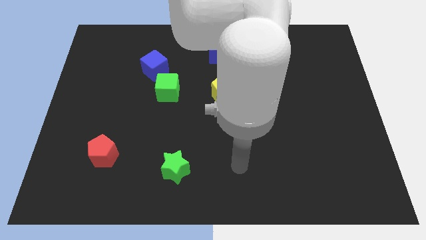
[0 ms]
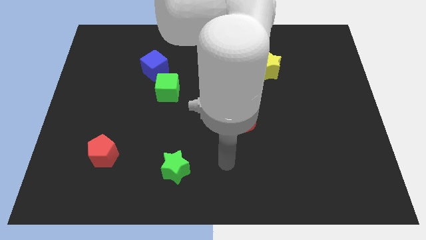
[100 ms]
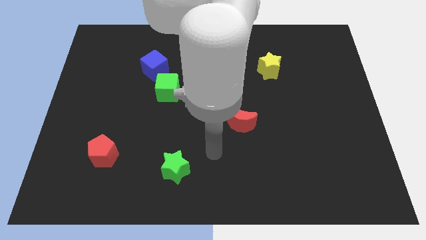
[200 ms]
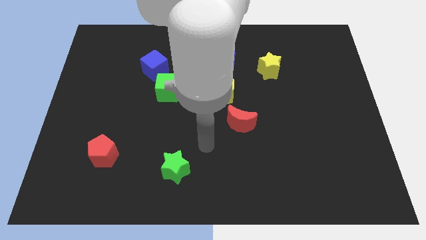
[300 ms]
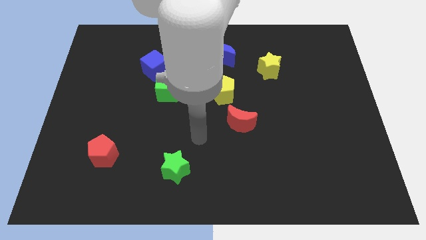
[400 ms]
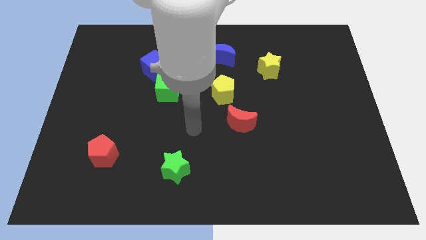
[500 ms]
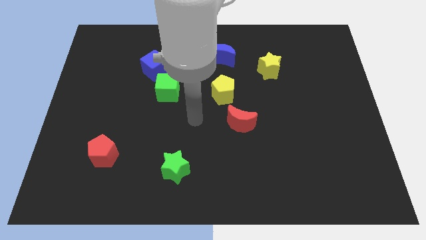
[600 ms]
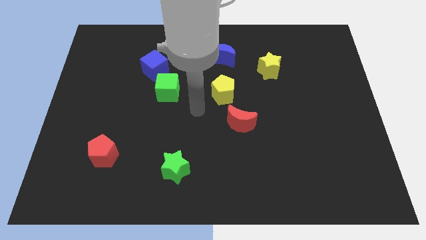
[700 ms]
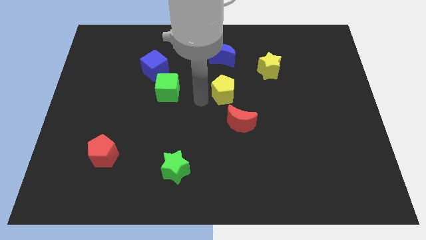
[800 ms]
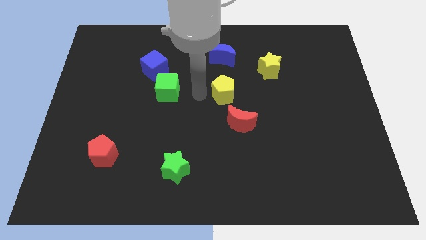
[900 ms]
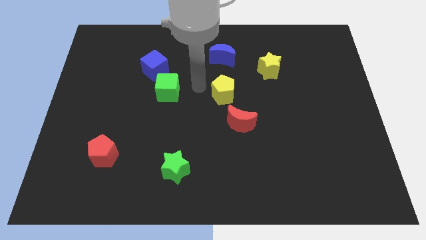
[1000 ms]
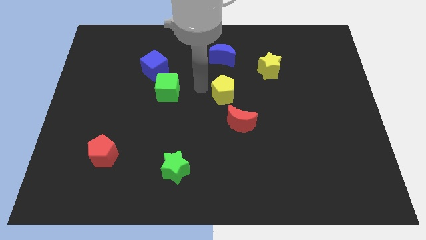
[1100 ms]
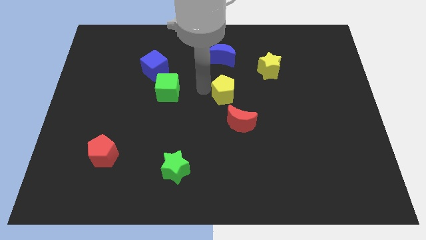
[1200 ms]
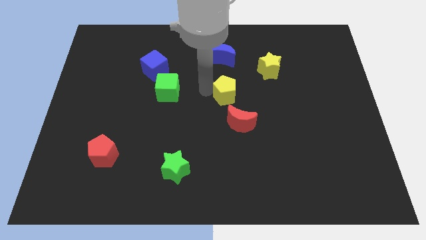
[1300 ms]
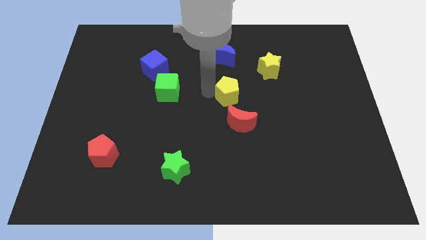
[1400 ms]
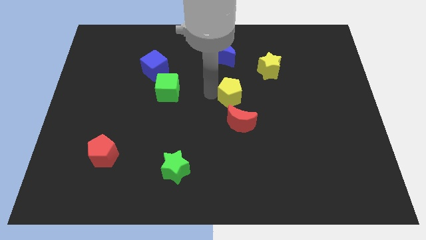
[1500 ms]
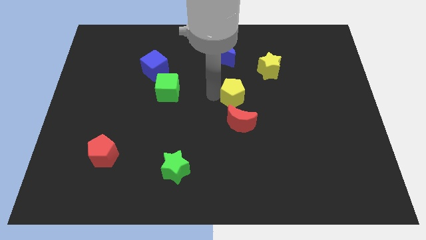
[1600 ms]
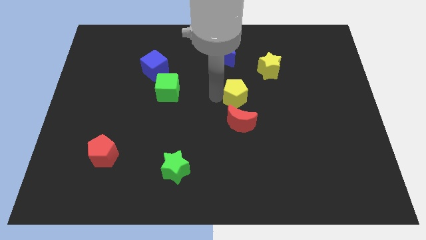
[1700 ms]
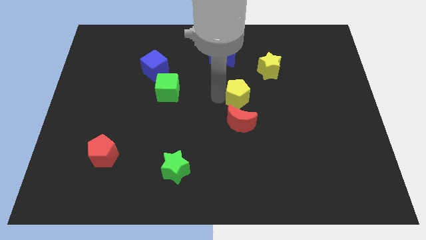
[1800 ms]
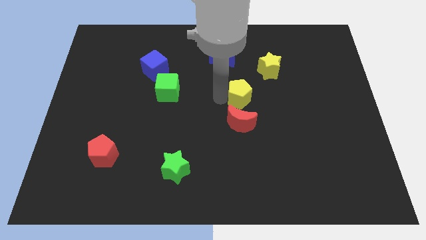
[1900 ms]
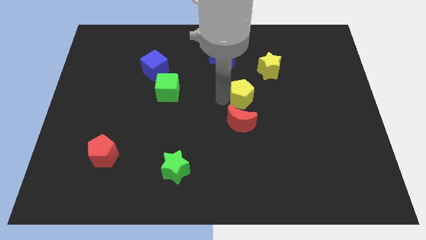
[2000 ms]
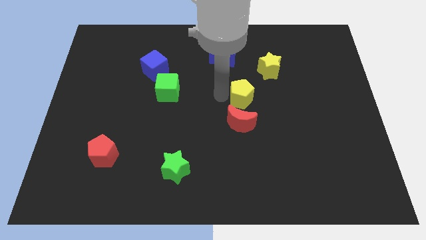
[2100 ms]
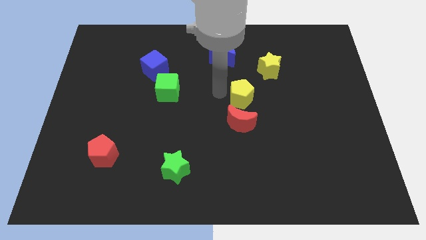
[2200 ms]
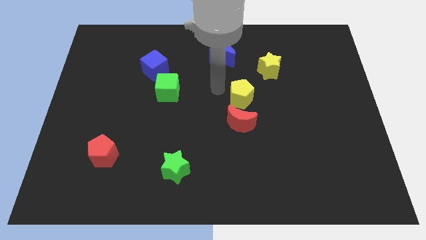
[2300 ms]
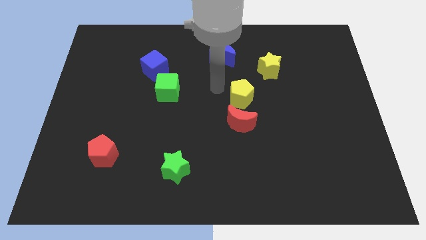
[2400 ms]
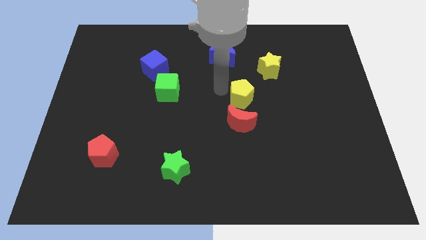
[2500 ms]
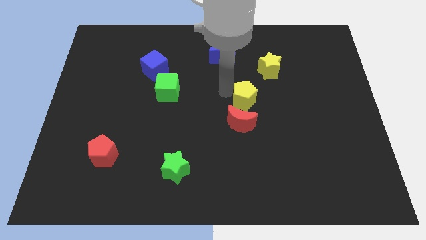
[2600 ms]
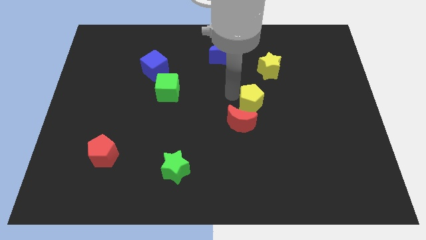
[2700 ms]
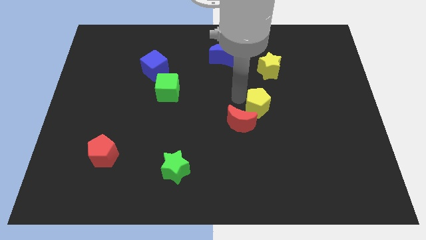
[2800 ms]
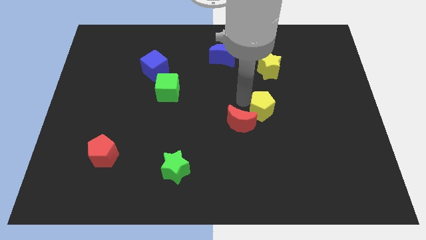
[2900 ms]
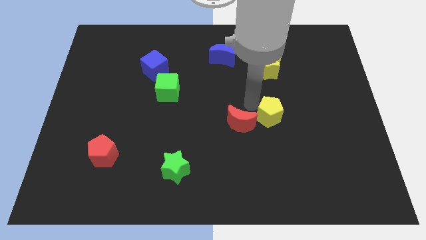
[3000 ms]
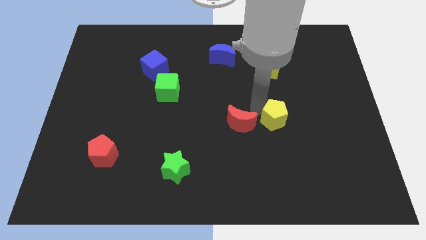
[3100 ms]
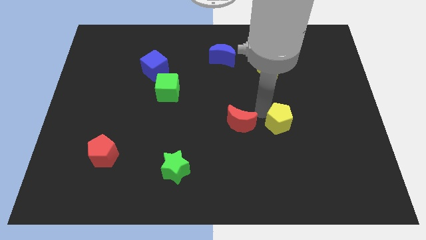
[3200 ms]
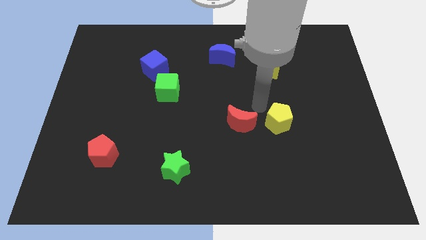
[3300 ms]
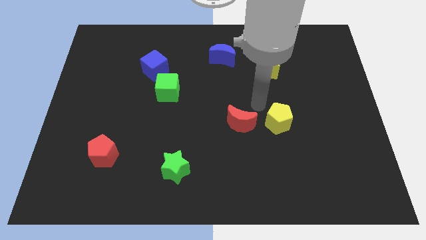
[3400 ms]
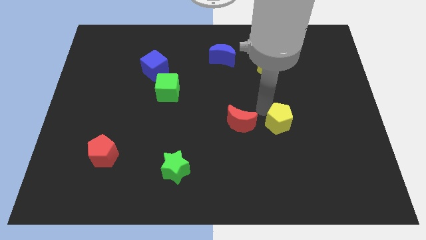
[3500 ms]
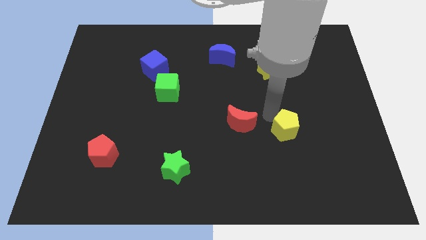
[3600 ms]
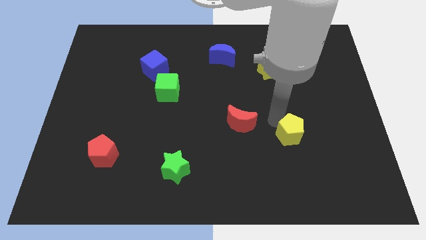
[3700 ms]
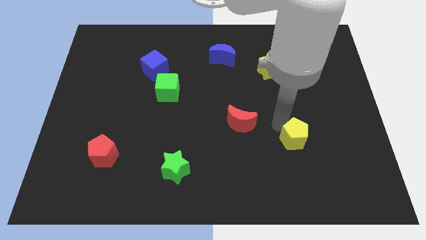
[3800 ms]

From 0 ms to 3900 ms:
move the yellow pentagon diagonally down and right

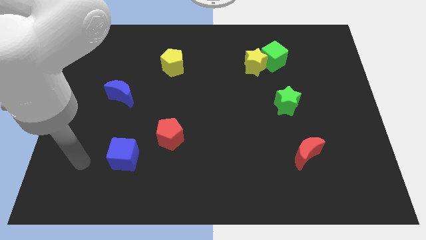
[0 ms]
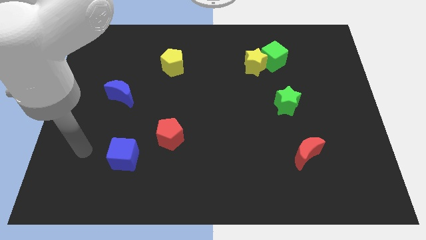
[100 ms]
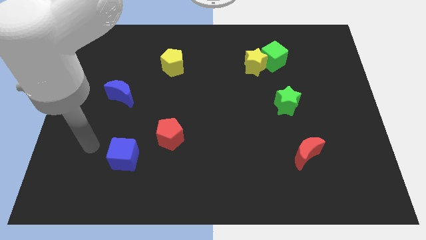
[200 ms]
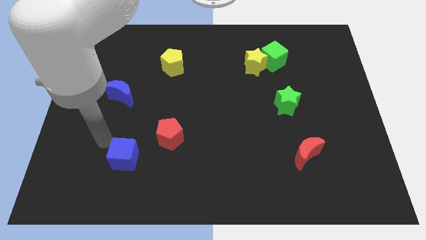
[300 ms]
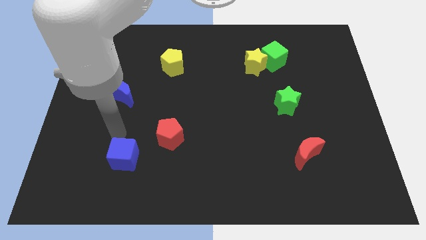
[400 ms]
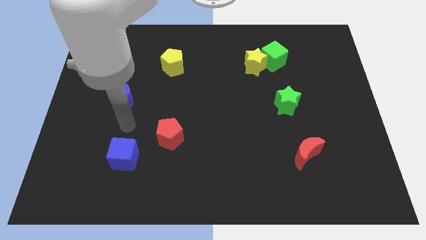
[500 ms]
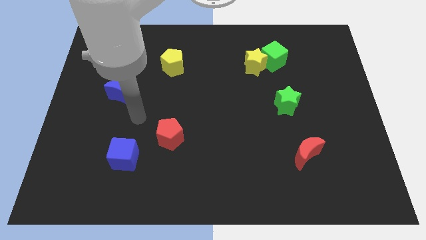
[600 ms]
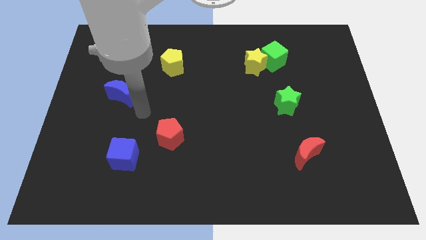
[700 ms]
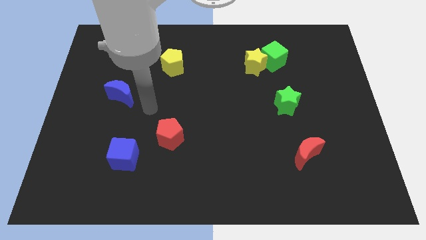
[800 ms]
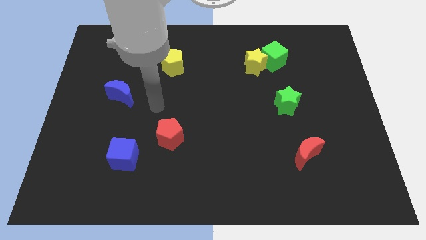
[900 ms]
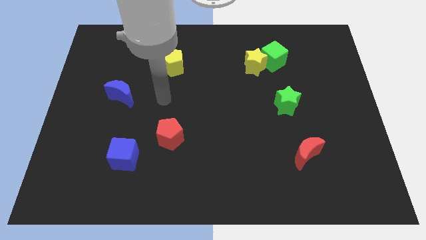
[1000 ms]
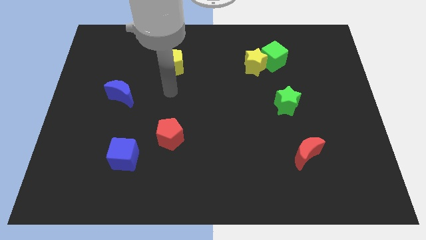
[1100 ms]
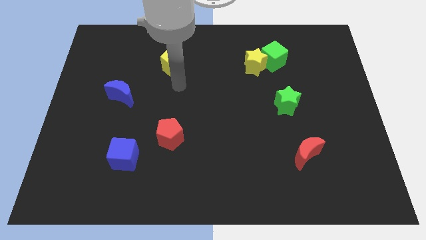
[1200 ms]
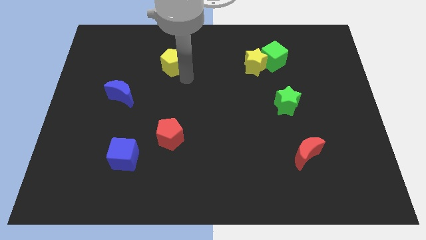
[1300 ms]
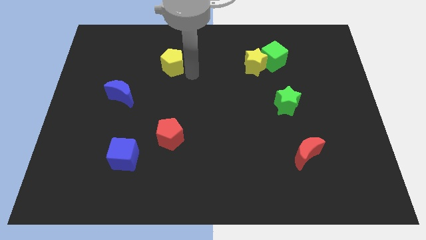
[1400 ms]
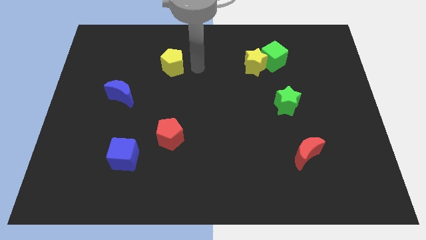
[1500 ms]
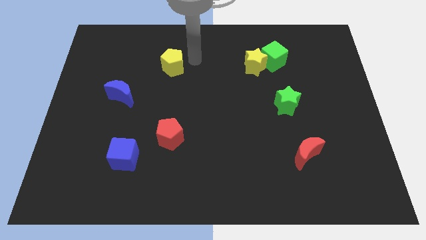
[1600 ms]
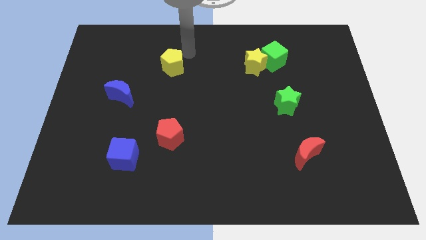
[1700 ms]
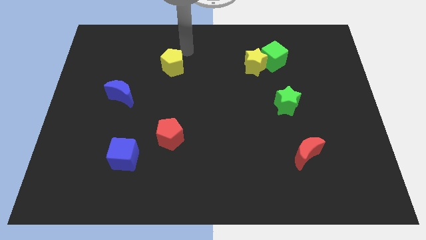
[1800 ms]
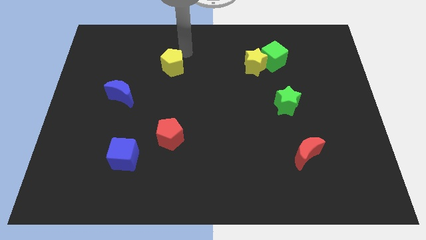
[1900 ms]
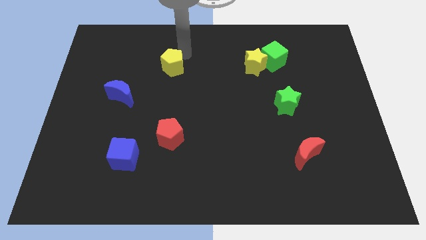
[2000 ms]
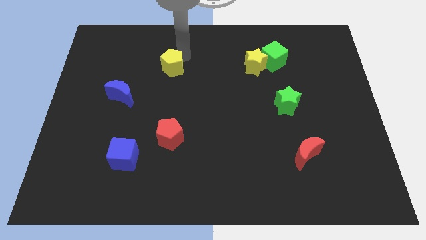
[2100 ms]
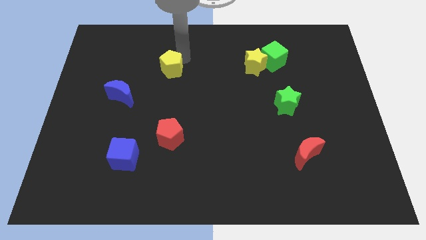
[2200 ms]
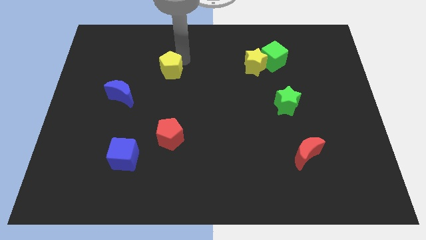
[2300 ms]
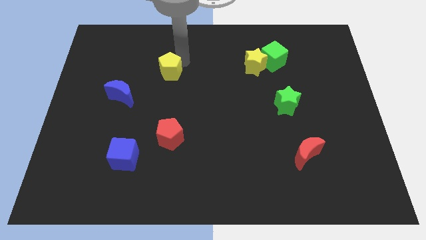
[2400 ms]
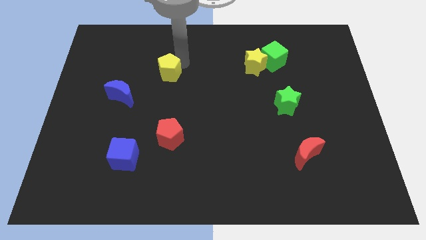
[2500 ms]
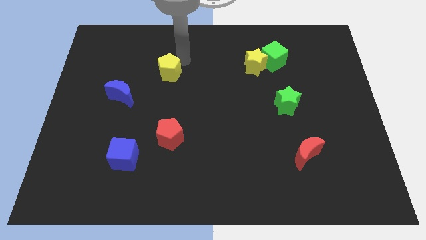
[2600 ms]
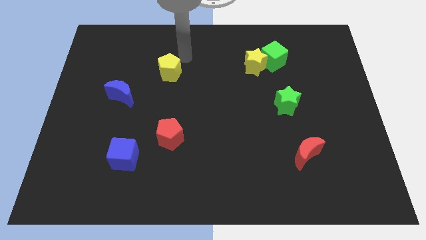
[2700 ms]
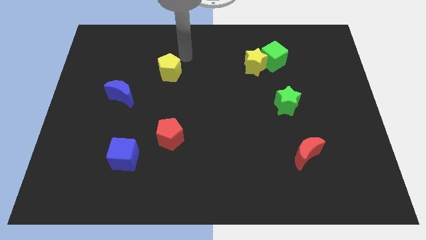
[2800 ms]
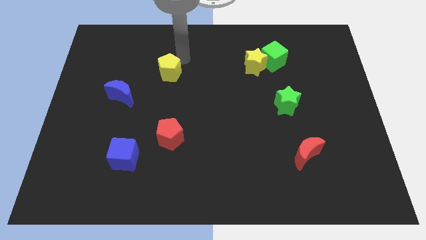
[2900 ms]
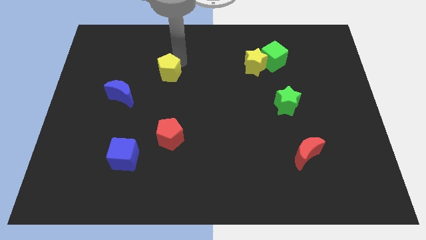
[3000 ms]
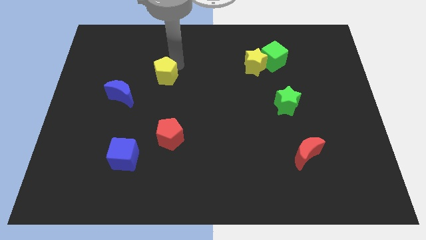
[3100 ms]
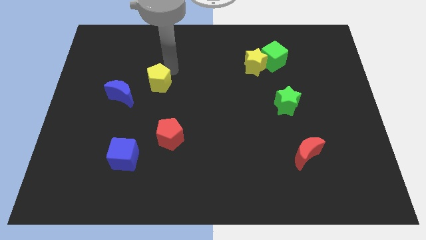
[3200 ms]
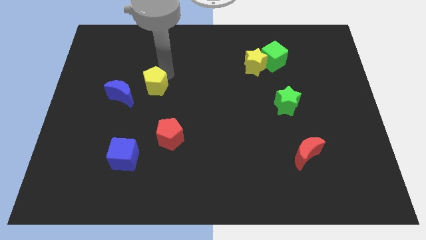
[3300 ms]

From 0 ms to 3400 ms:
slightly move the yellow pentagon diagonally down and left

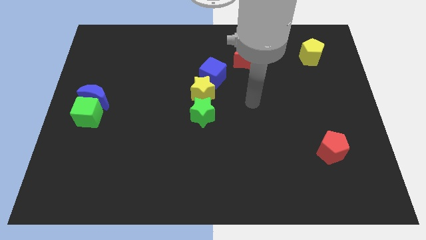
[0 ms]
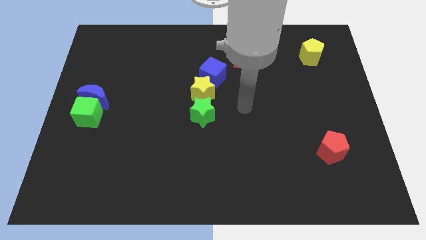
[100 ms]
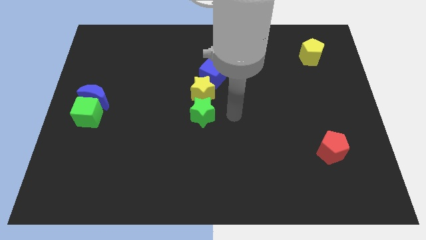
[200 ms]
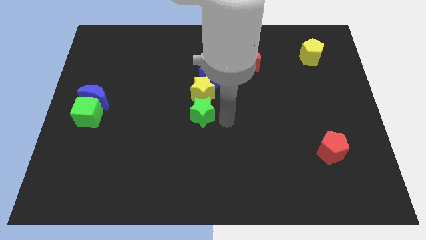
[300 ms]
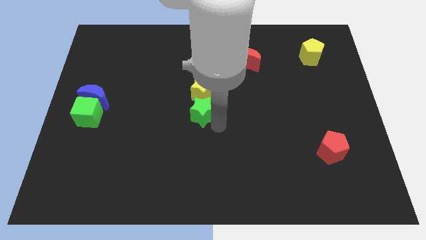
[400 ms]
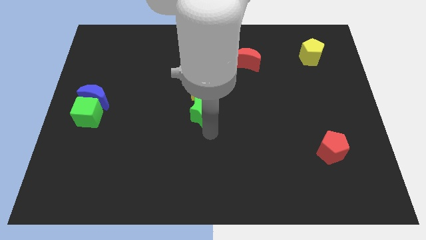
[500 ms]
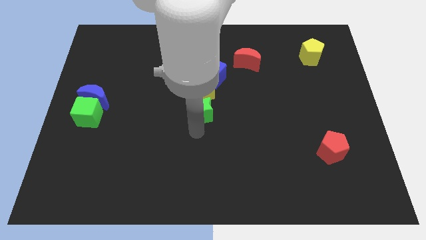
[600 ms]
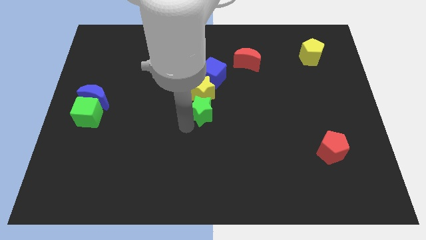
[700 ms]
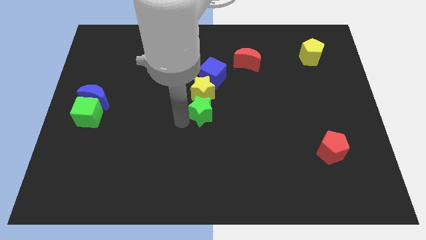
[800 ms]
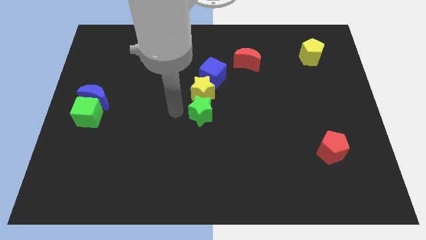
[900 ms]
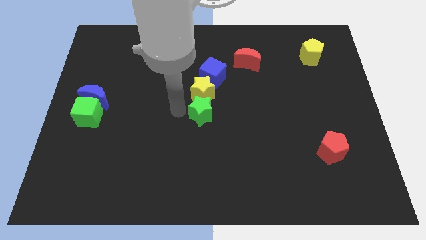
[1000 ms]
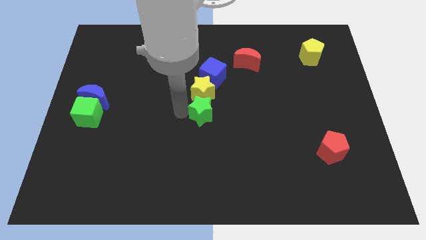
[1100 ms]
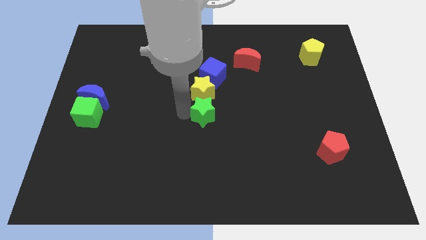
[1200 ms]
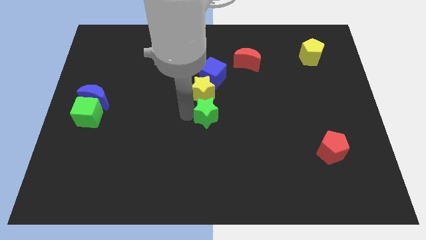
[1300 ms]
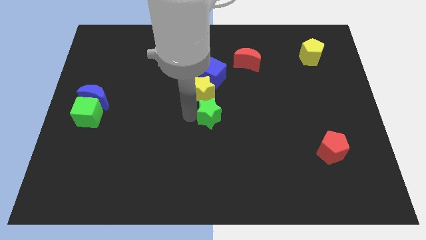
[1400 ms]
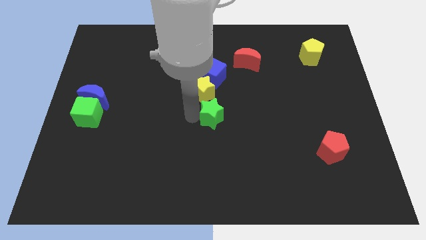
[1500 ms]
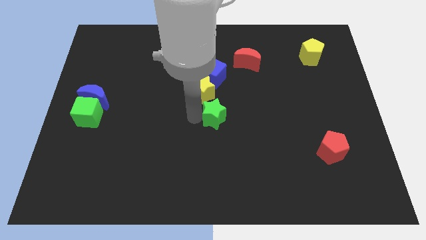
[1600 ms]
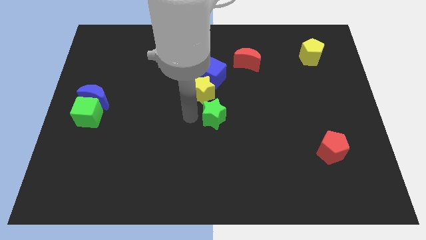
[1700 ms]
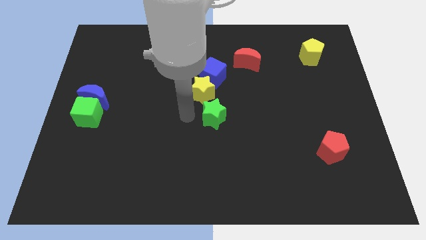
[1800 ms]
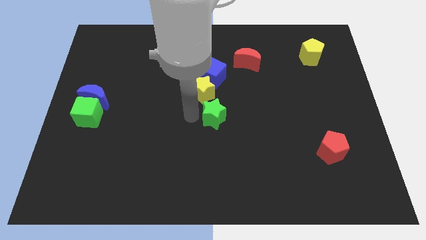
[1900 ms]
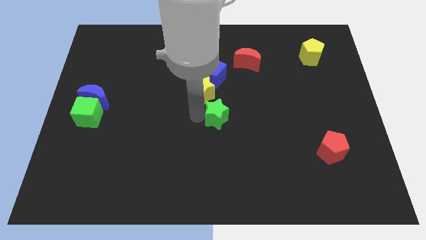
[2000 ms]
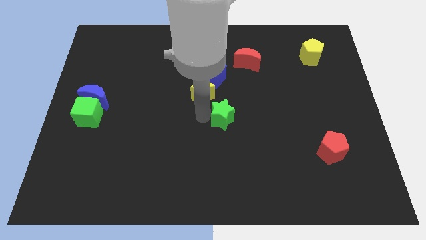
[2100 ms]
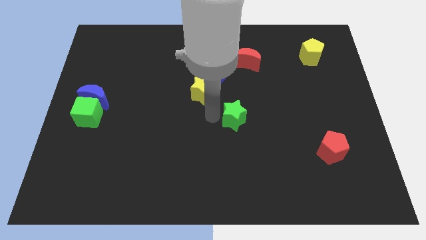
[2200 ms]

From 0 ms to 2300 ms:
move the green star a little right
